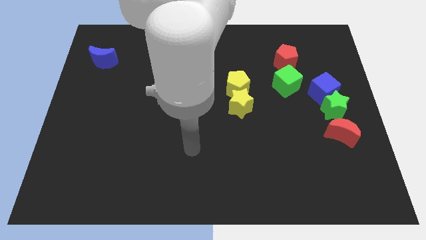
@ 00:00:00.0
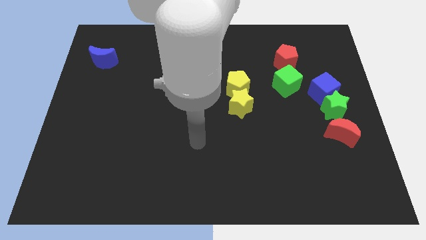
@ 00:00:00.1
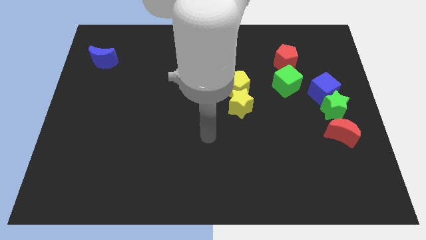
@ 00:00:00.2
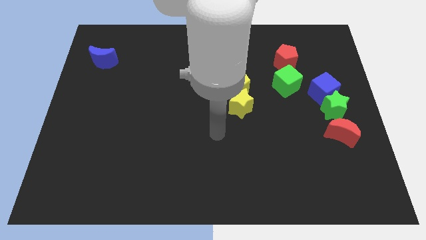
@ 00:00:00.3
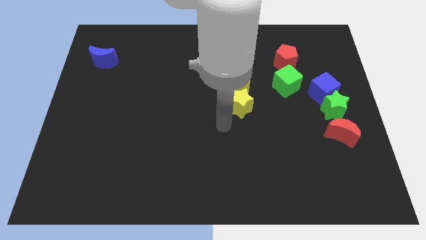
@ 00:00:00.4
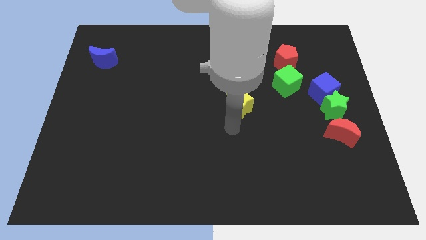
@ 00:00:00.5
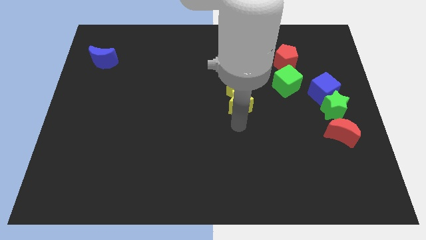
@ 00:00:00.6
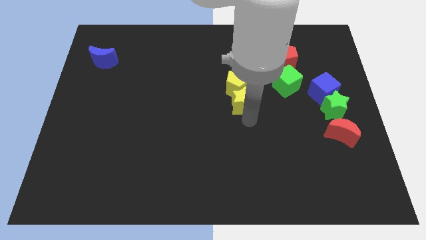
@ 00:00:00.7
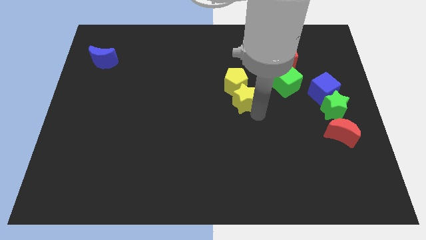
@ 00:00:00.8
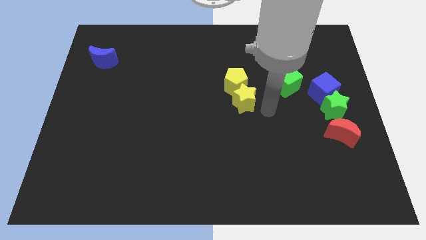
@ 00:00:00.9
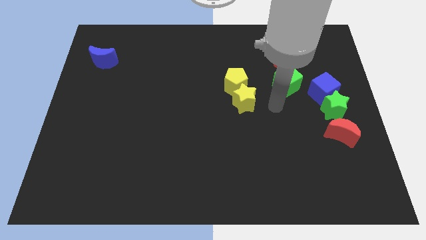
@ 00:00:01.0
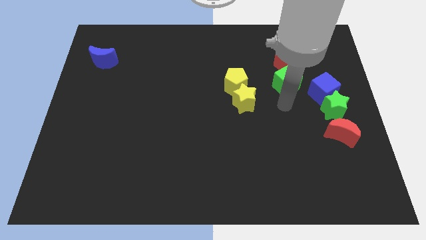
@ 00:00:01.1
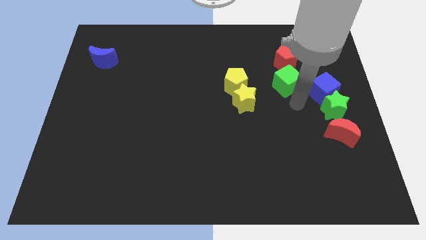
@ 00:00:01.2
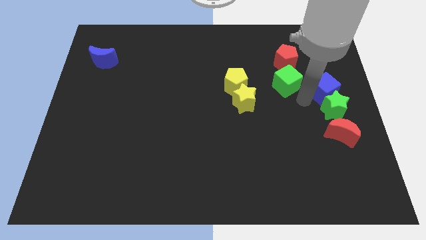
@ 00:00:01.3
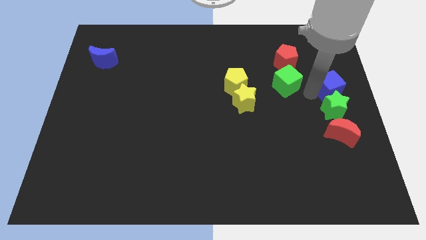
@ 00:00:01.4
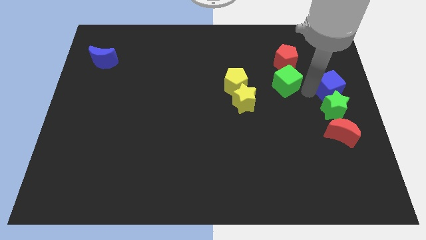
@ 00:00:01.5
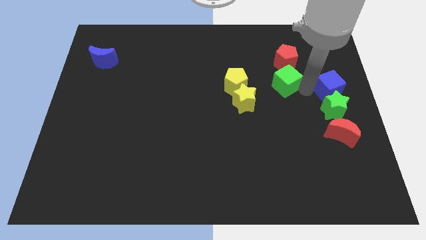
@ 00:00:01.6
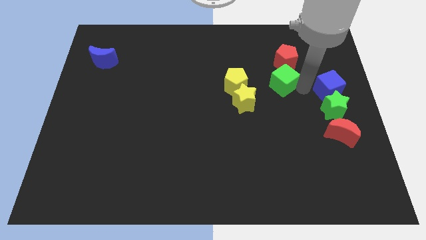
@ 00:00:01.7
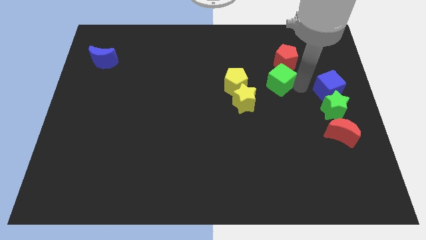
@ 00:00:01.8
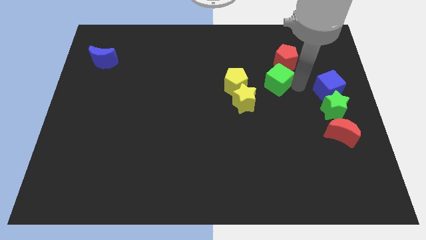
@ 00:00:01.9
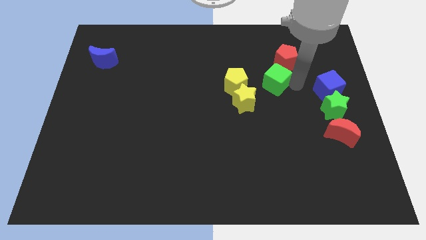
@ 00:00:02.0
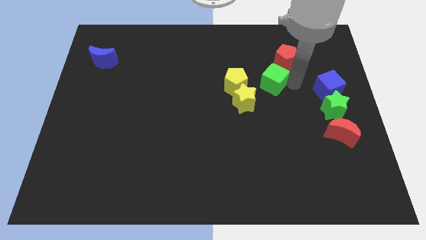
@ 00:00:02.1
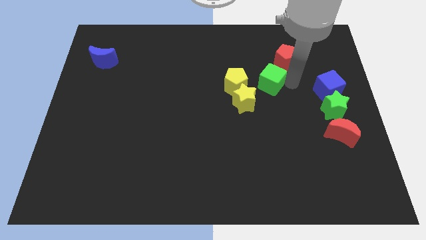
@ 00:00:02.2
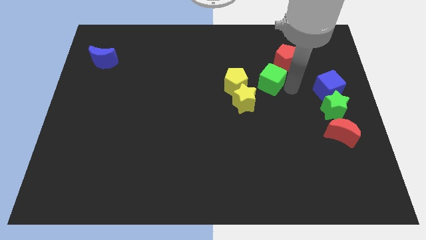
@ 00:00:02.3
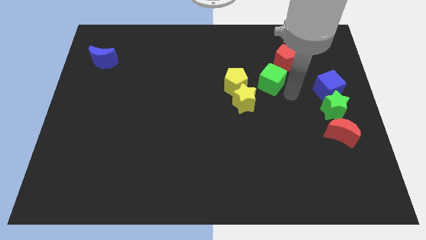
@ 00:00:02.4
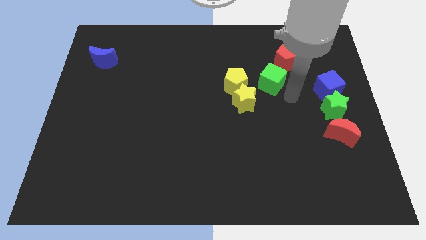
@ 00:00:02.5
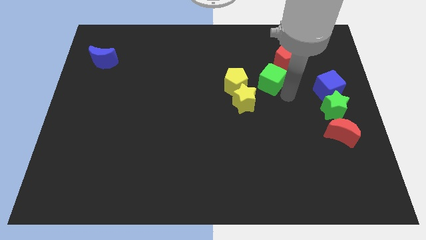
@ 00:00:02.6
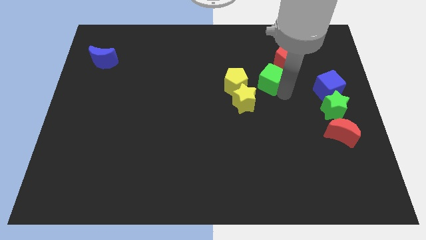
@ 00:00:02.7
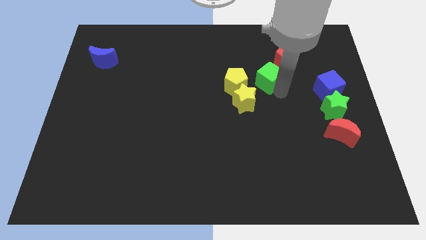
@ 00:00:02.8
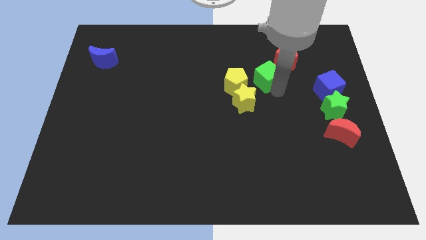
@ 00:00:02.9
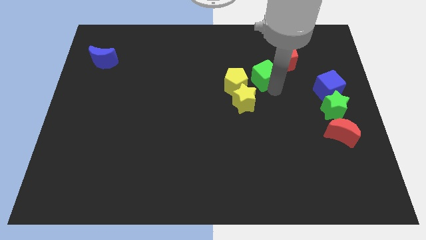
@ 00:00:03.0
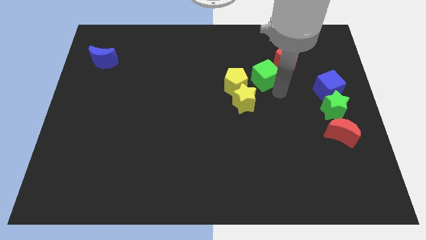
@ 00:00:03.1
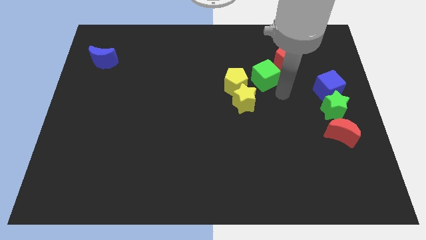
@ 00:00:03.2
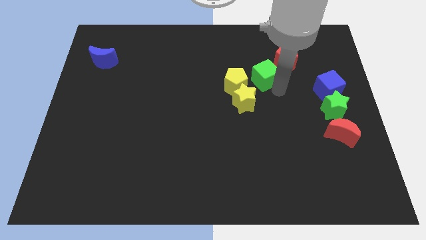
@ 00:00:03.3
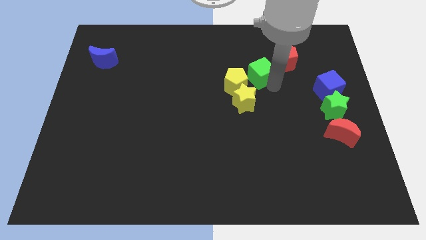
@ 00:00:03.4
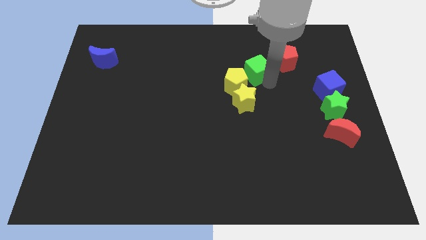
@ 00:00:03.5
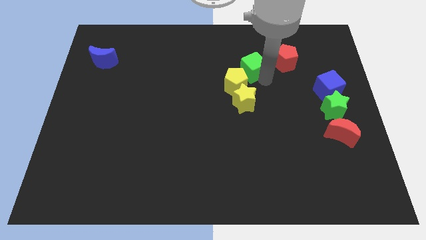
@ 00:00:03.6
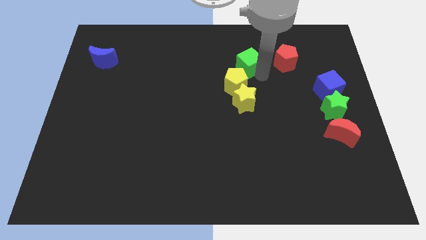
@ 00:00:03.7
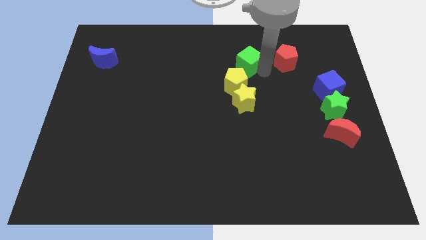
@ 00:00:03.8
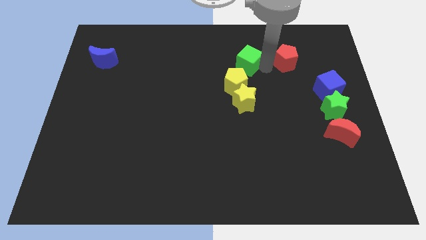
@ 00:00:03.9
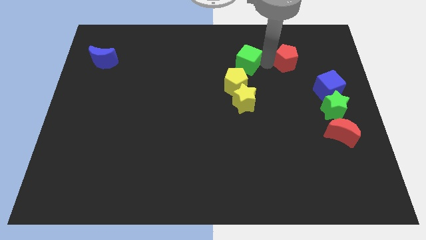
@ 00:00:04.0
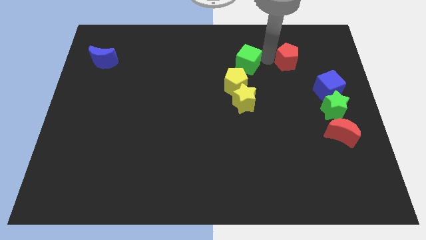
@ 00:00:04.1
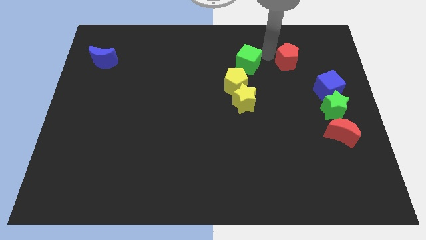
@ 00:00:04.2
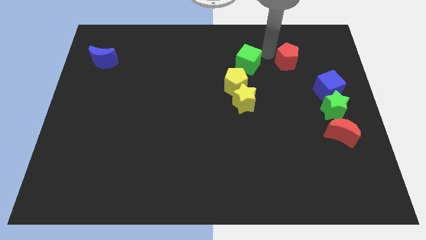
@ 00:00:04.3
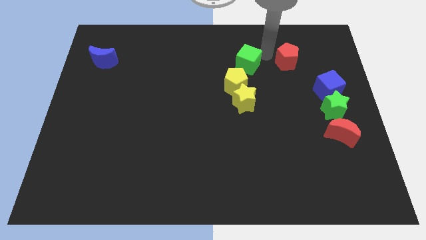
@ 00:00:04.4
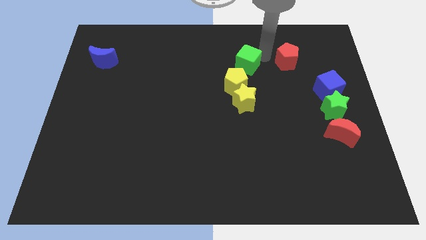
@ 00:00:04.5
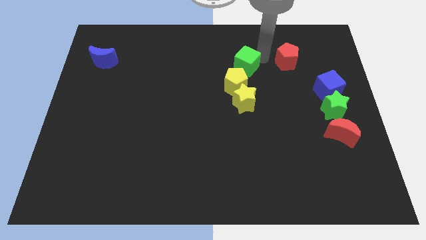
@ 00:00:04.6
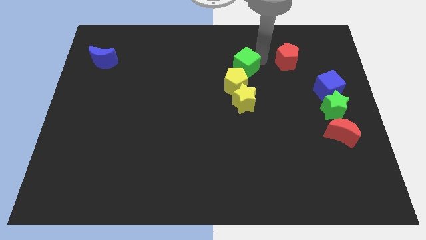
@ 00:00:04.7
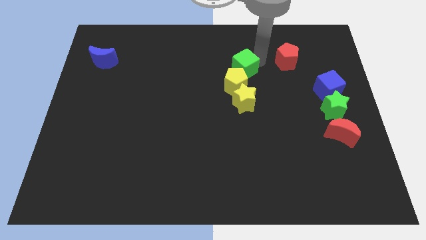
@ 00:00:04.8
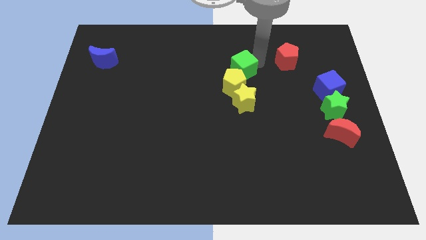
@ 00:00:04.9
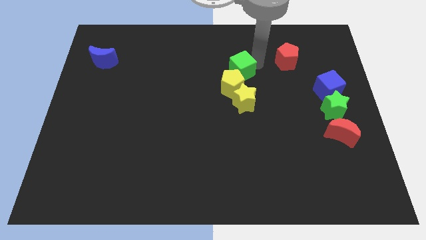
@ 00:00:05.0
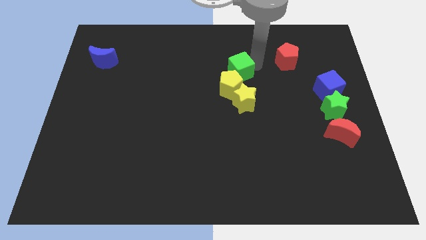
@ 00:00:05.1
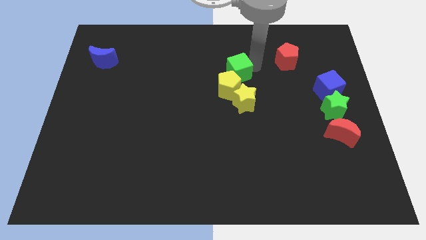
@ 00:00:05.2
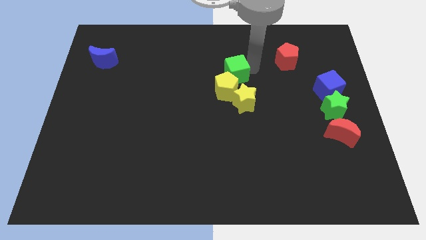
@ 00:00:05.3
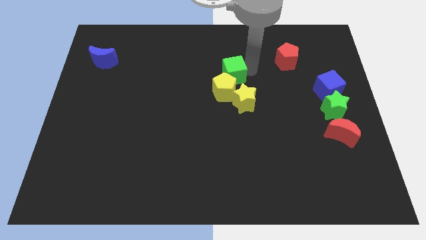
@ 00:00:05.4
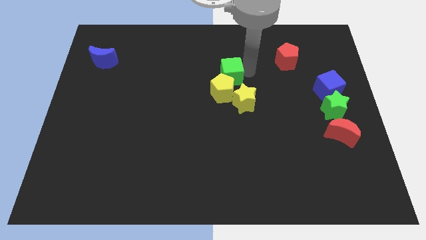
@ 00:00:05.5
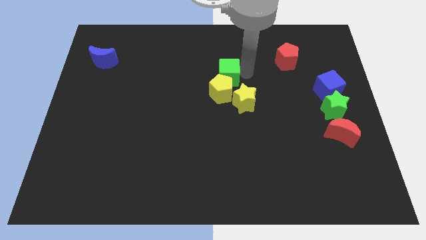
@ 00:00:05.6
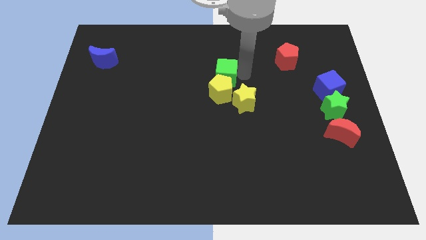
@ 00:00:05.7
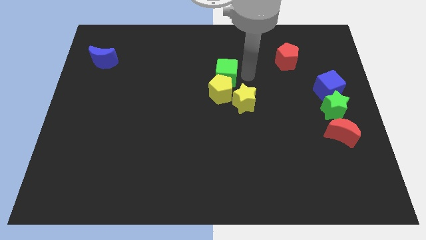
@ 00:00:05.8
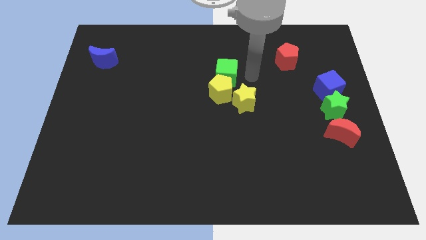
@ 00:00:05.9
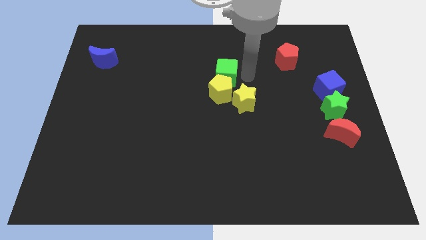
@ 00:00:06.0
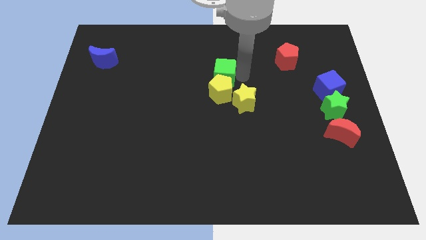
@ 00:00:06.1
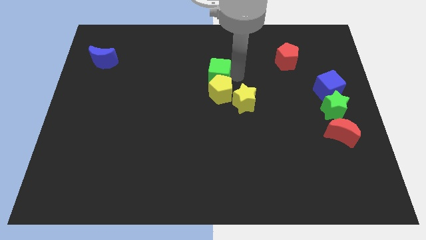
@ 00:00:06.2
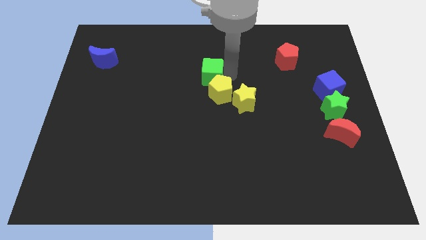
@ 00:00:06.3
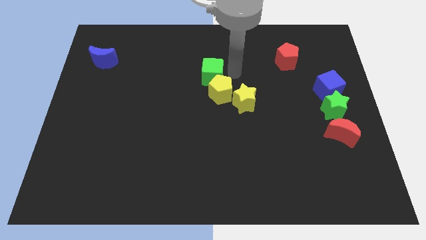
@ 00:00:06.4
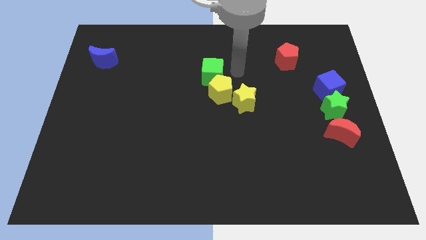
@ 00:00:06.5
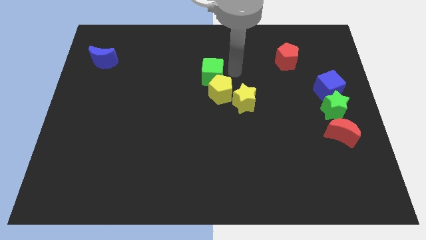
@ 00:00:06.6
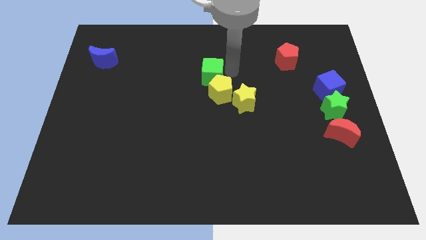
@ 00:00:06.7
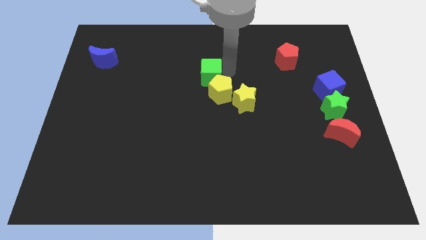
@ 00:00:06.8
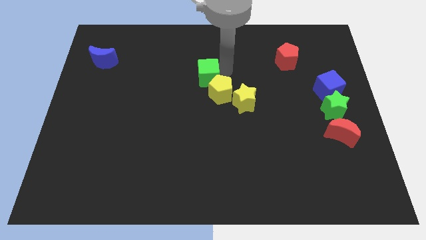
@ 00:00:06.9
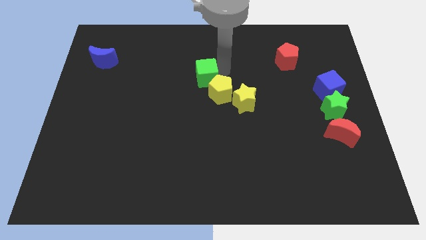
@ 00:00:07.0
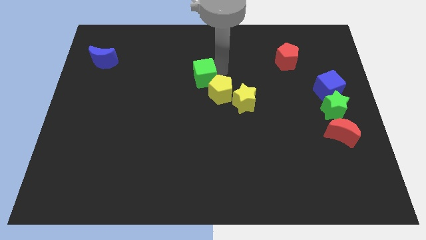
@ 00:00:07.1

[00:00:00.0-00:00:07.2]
slide the green cube left

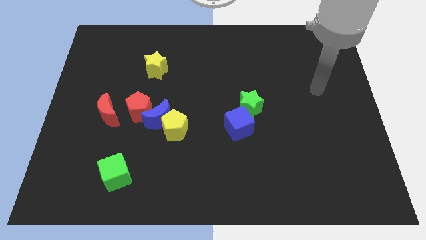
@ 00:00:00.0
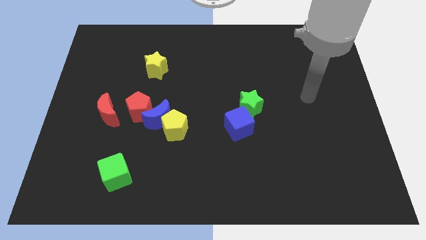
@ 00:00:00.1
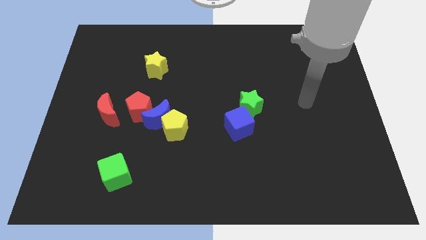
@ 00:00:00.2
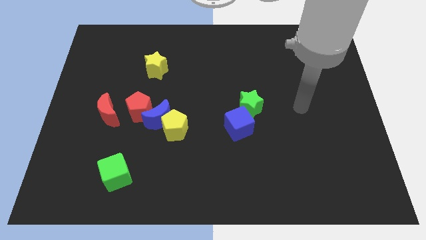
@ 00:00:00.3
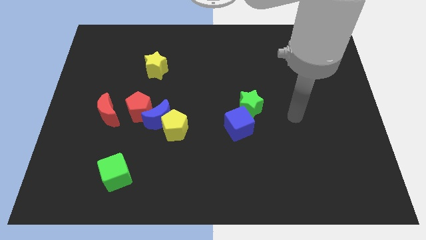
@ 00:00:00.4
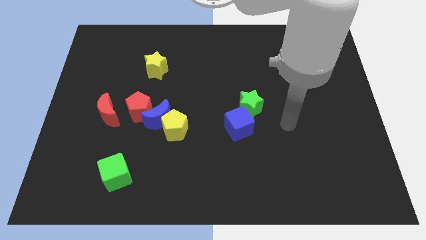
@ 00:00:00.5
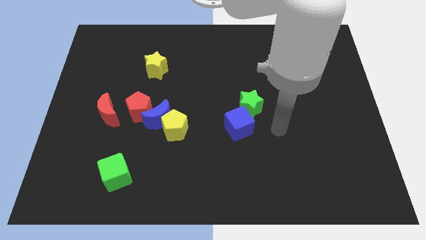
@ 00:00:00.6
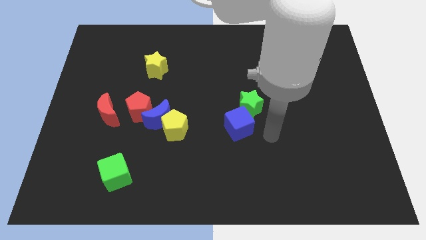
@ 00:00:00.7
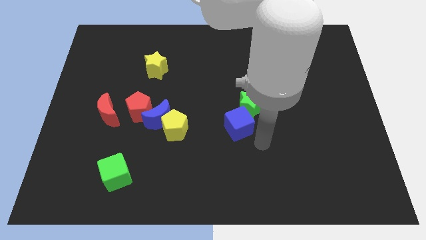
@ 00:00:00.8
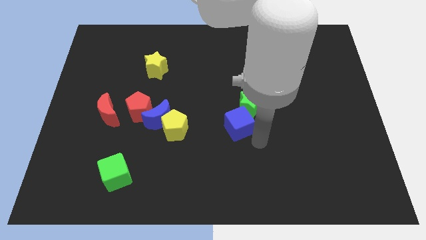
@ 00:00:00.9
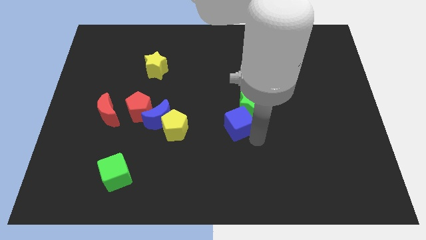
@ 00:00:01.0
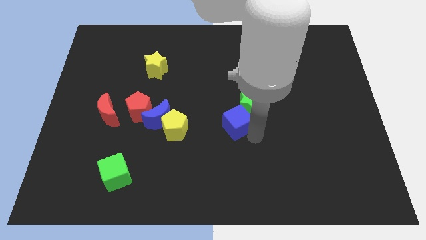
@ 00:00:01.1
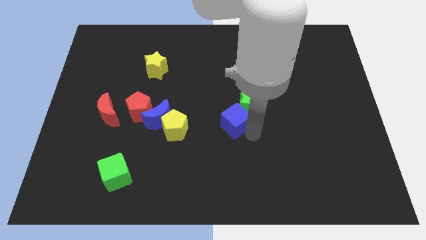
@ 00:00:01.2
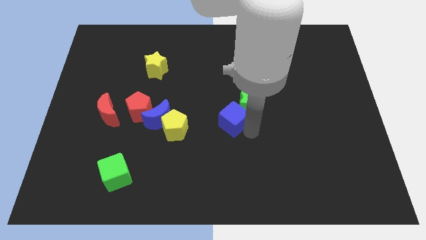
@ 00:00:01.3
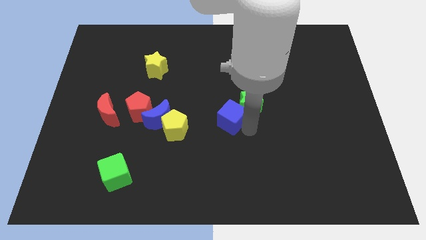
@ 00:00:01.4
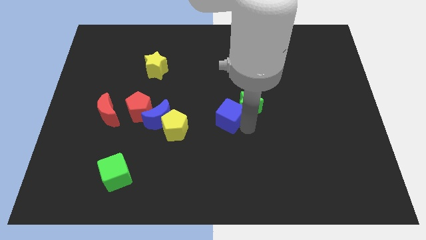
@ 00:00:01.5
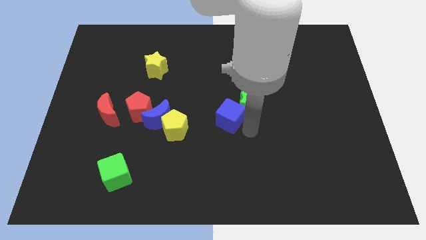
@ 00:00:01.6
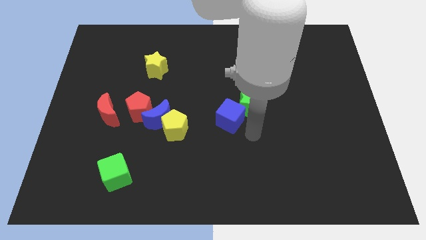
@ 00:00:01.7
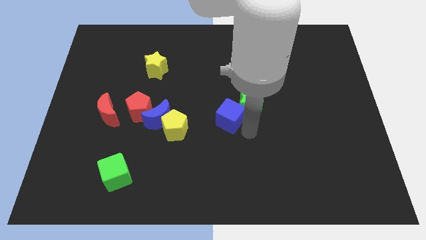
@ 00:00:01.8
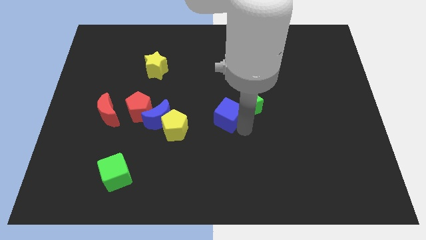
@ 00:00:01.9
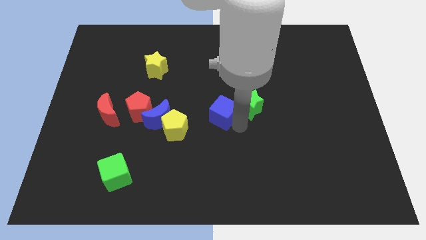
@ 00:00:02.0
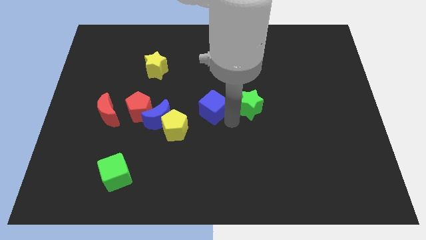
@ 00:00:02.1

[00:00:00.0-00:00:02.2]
push the blue cube somewhat upwards and then to the left
